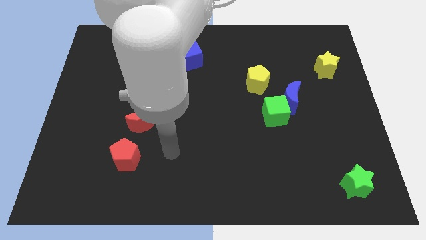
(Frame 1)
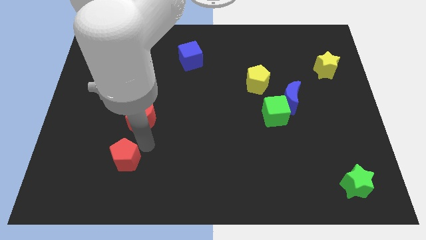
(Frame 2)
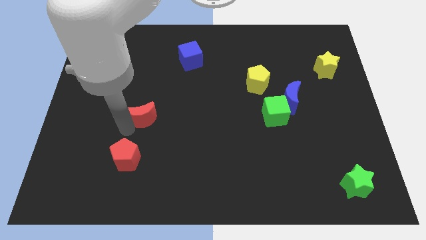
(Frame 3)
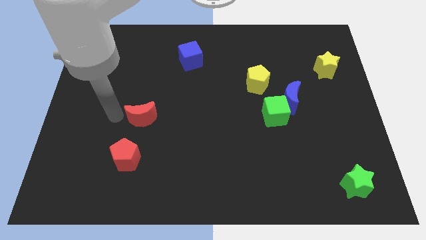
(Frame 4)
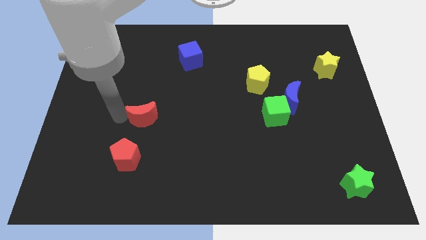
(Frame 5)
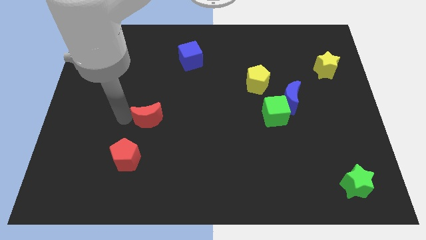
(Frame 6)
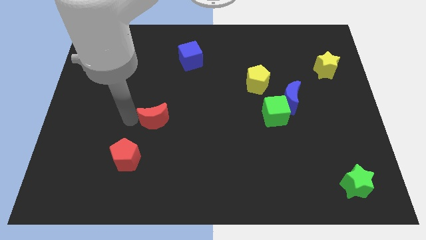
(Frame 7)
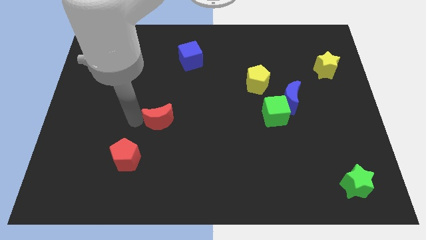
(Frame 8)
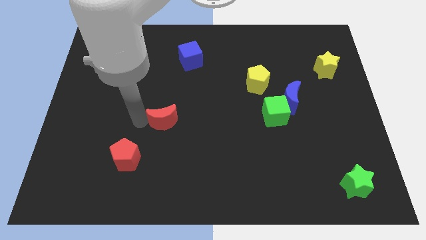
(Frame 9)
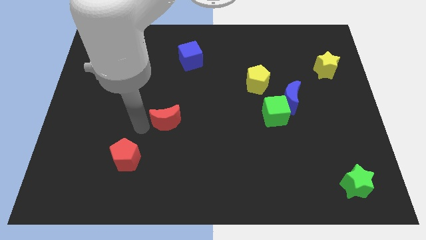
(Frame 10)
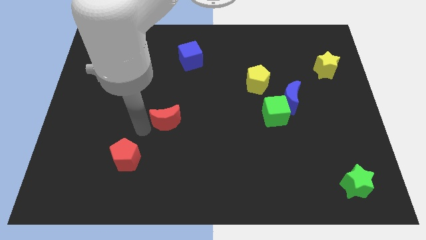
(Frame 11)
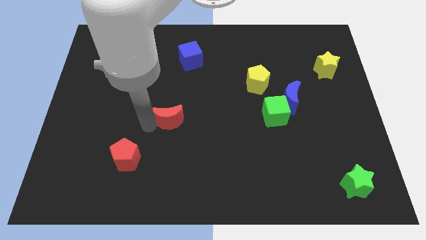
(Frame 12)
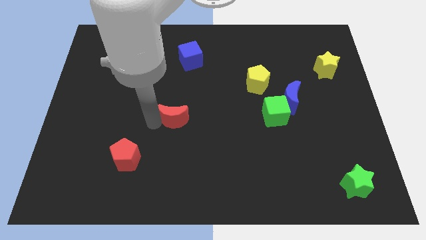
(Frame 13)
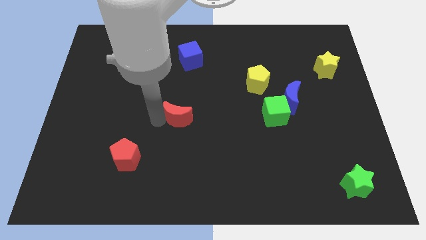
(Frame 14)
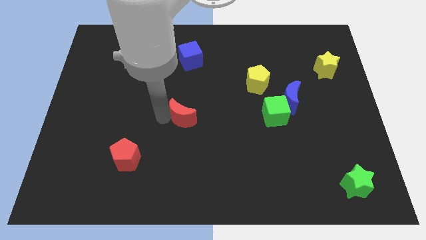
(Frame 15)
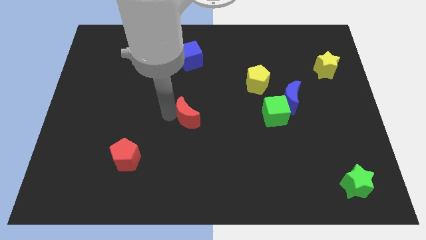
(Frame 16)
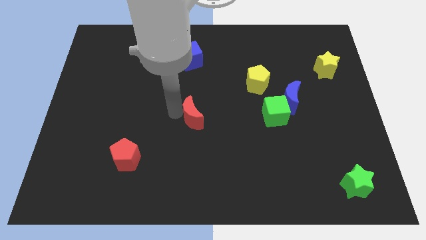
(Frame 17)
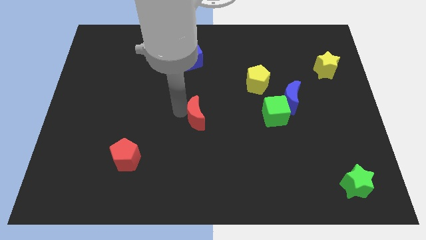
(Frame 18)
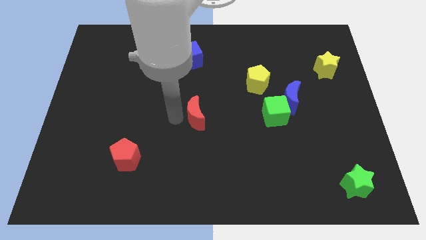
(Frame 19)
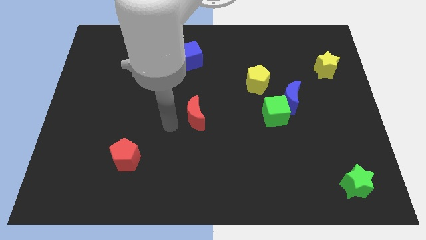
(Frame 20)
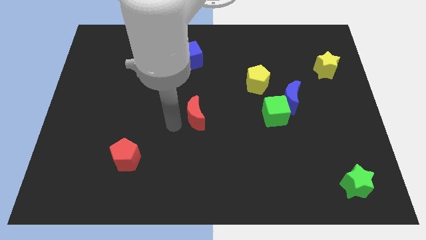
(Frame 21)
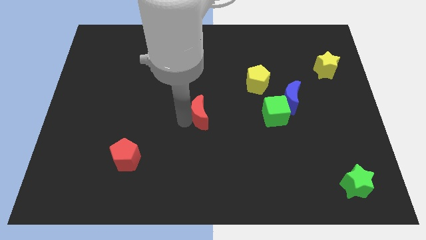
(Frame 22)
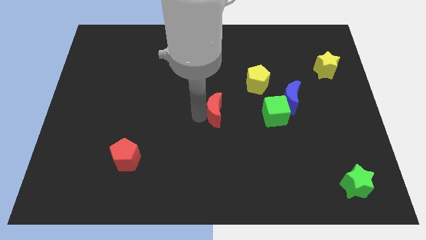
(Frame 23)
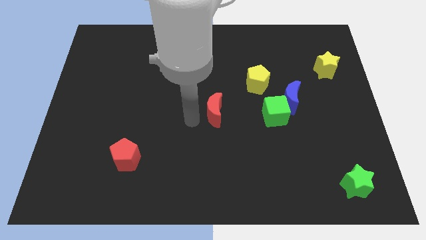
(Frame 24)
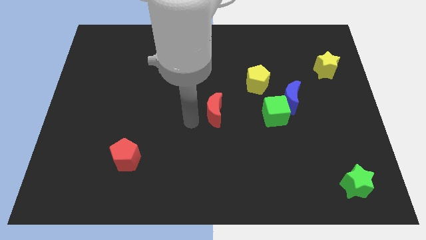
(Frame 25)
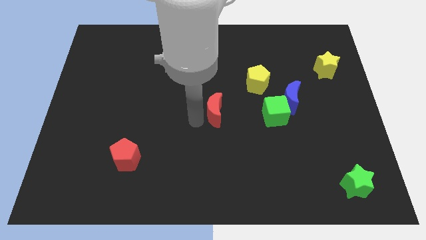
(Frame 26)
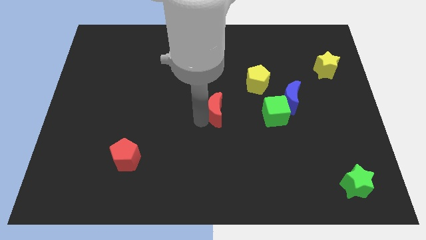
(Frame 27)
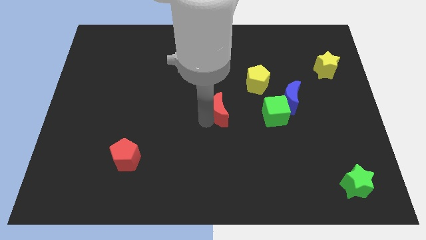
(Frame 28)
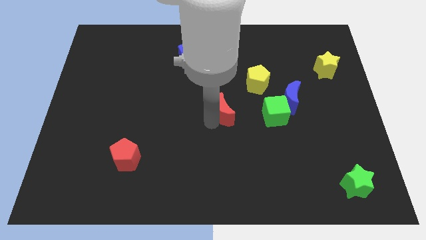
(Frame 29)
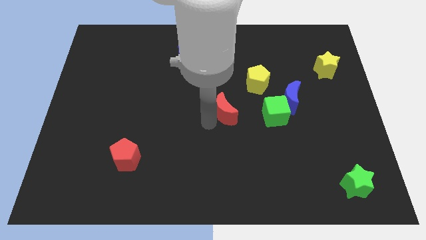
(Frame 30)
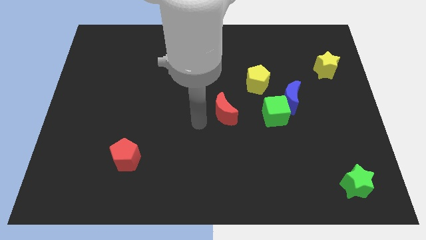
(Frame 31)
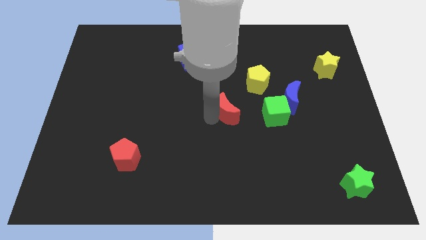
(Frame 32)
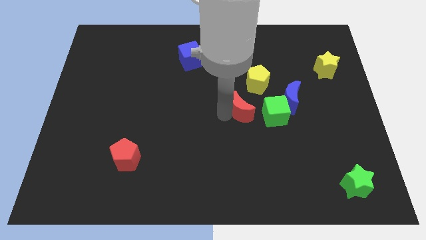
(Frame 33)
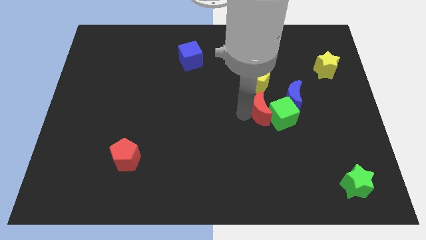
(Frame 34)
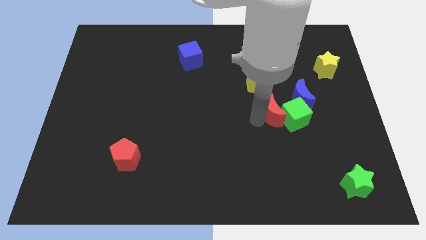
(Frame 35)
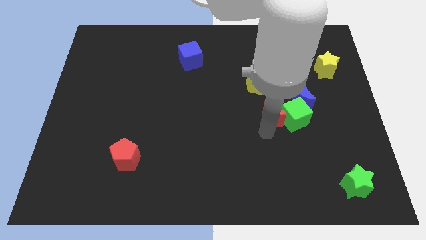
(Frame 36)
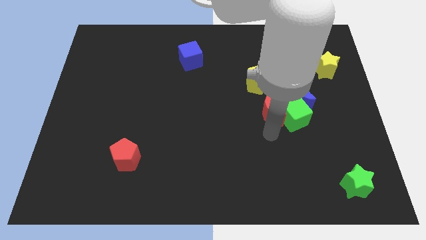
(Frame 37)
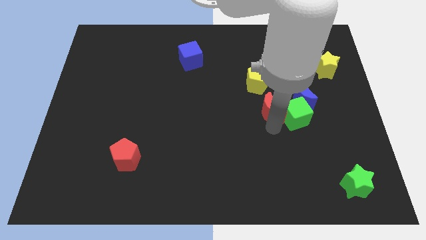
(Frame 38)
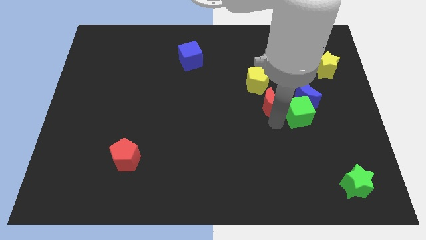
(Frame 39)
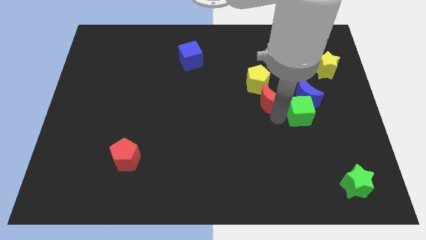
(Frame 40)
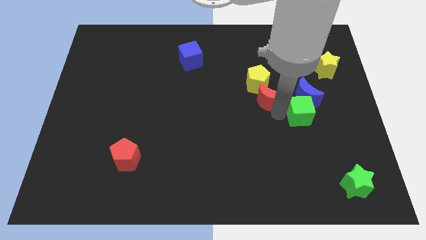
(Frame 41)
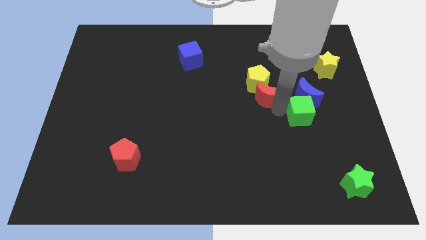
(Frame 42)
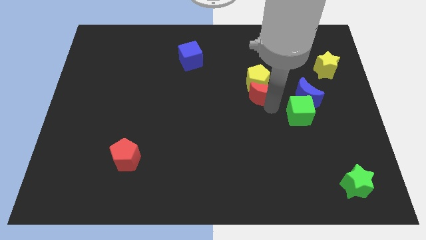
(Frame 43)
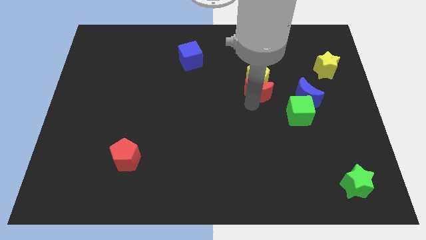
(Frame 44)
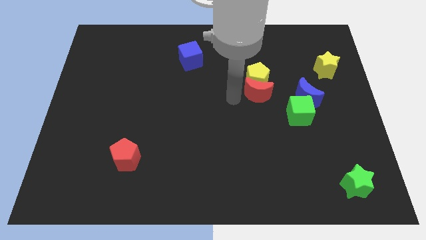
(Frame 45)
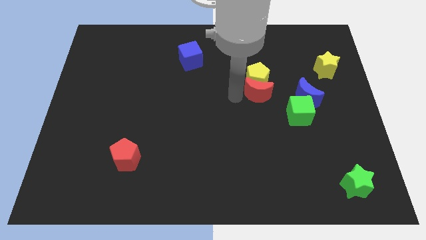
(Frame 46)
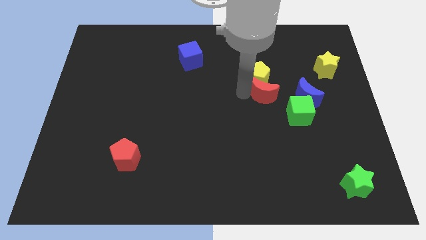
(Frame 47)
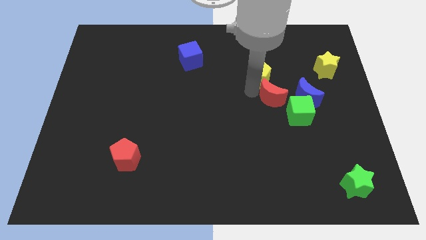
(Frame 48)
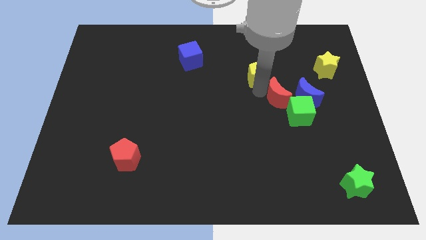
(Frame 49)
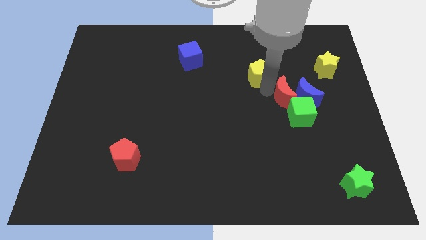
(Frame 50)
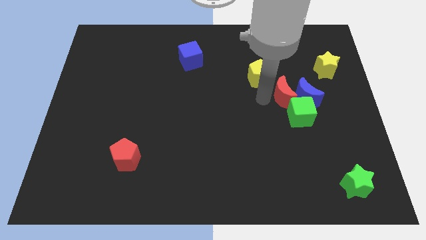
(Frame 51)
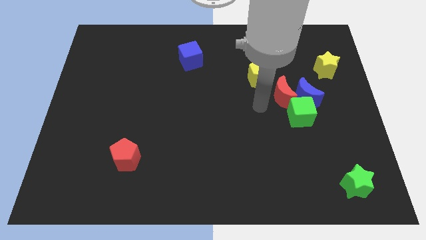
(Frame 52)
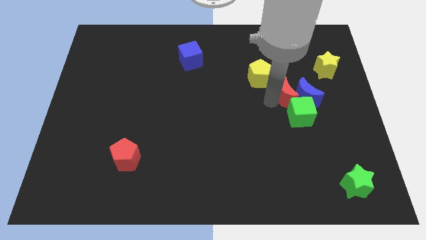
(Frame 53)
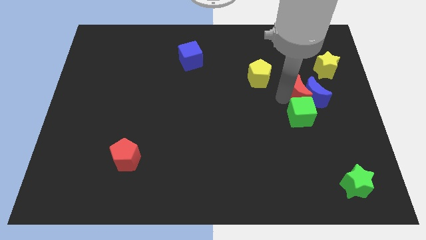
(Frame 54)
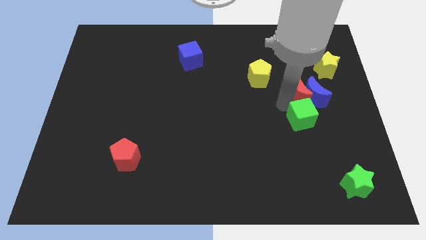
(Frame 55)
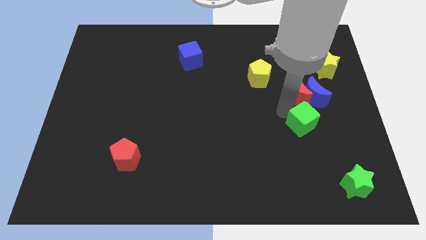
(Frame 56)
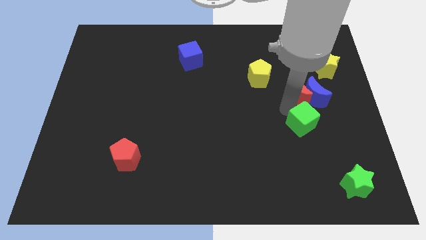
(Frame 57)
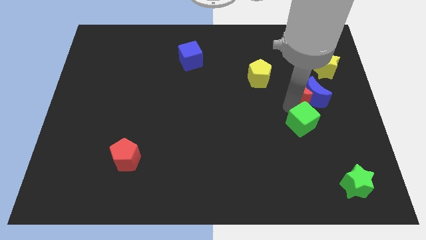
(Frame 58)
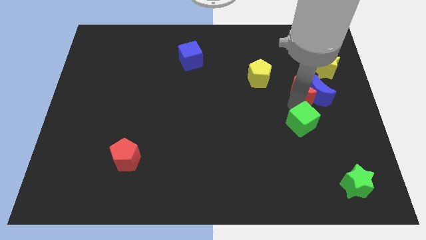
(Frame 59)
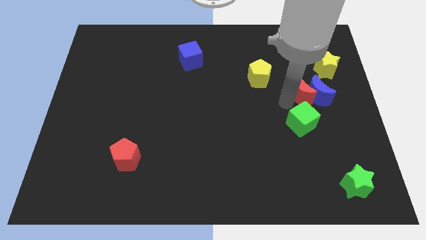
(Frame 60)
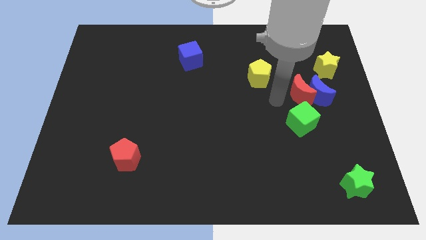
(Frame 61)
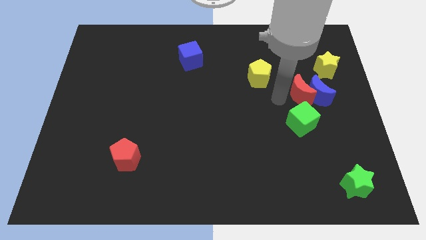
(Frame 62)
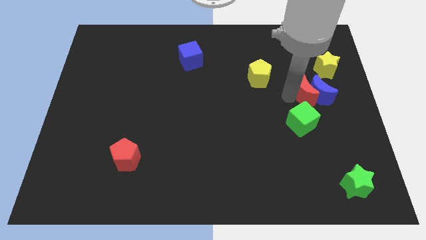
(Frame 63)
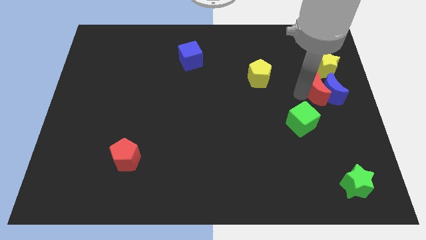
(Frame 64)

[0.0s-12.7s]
move the red moon to the bottom side of the yellow star

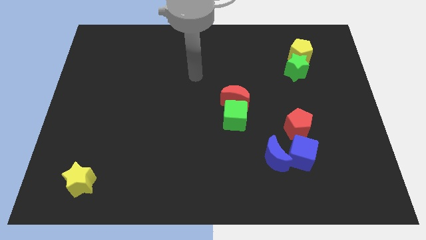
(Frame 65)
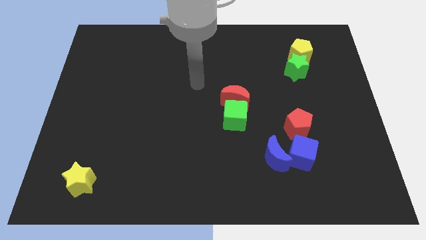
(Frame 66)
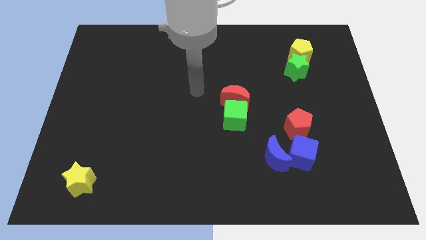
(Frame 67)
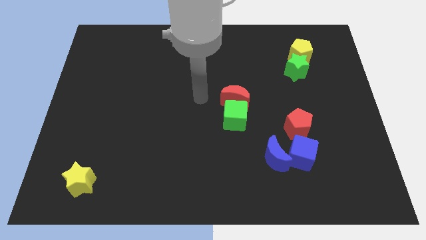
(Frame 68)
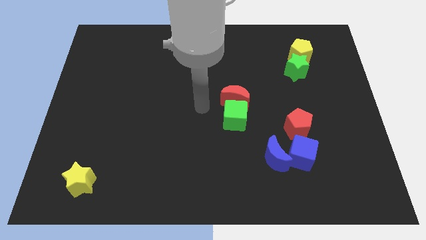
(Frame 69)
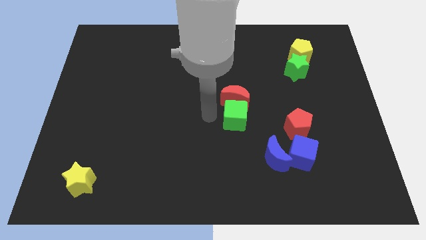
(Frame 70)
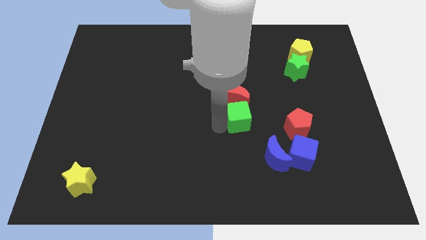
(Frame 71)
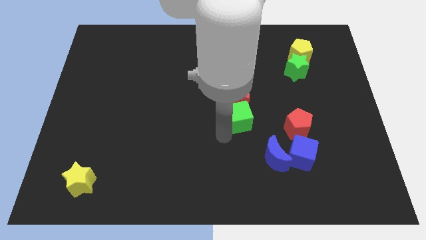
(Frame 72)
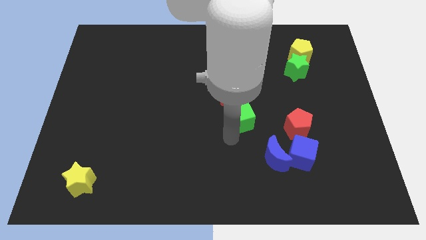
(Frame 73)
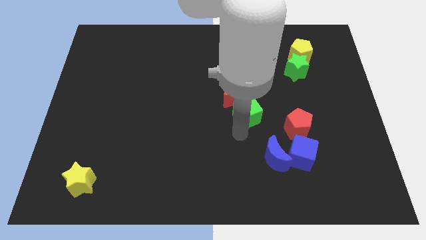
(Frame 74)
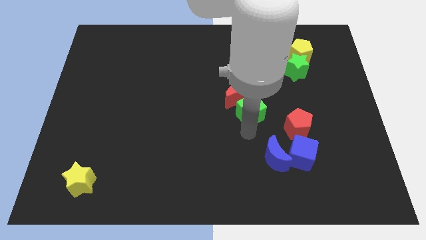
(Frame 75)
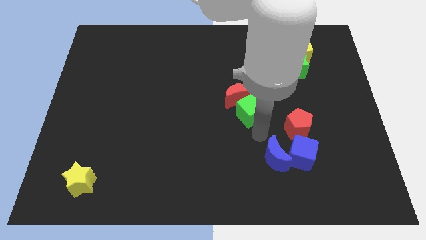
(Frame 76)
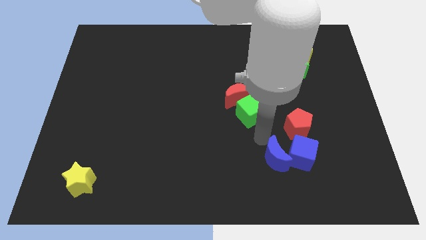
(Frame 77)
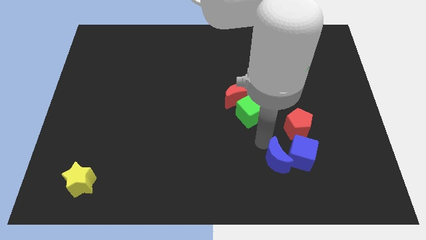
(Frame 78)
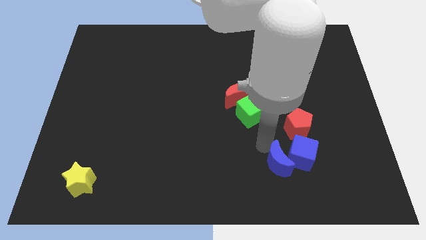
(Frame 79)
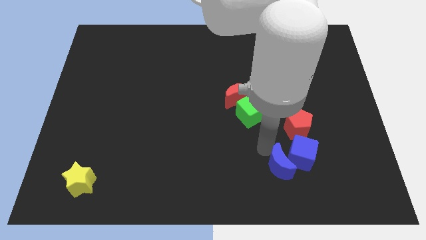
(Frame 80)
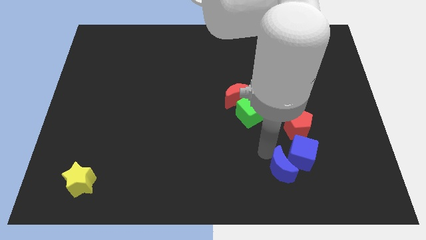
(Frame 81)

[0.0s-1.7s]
move the blue moon to the bottom side of the red pentagon
